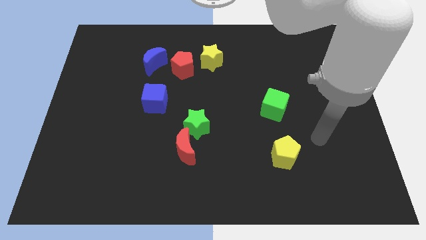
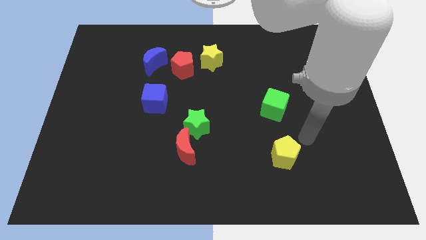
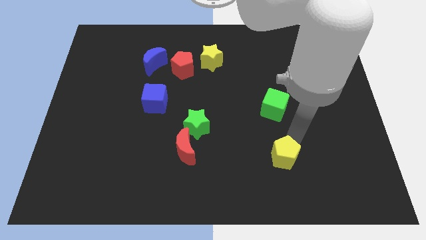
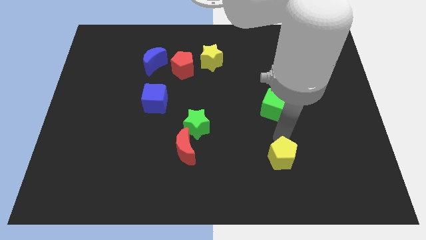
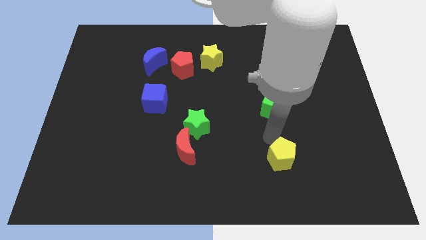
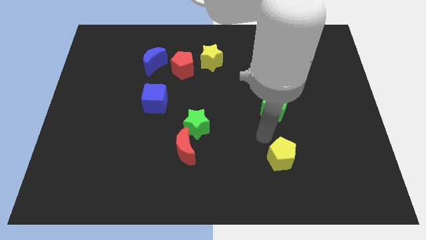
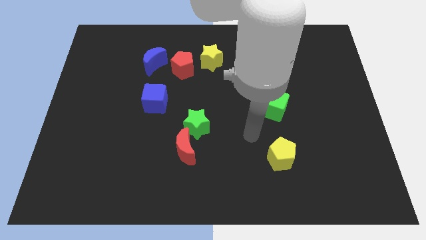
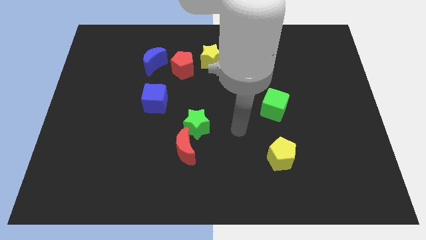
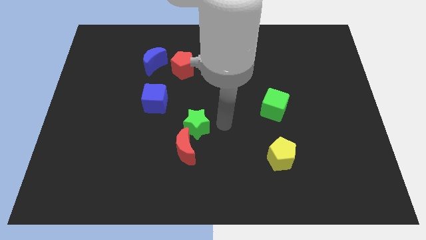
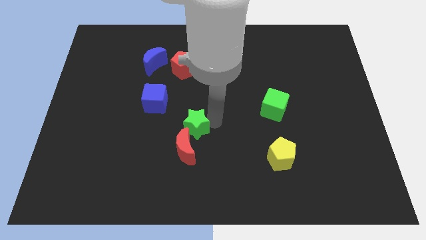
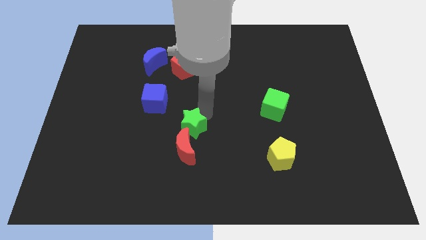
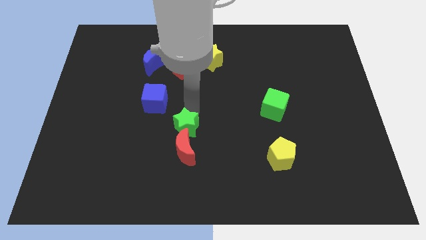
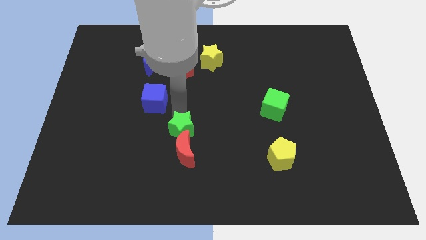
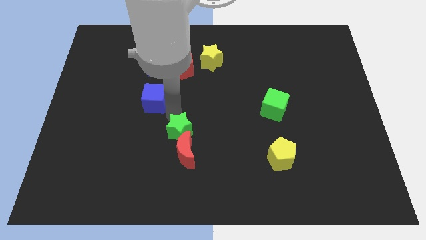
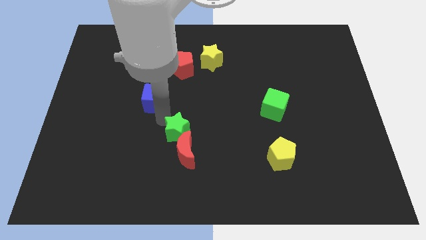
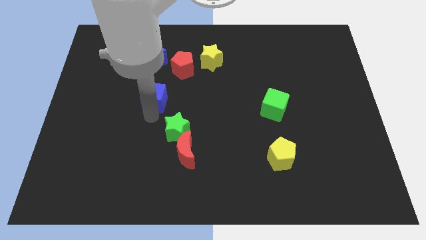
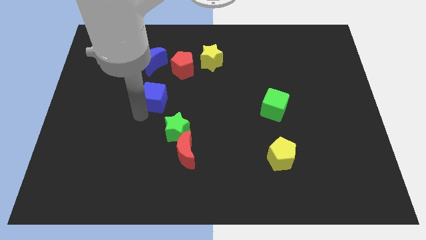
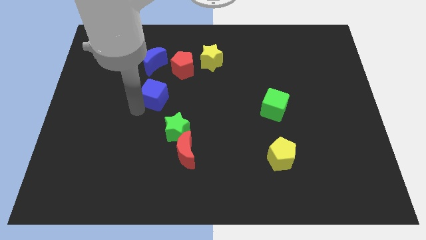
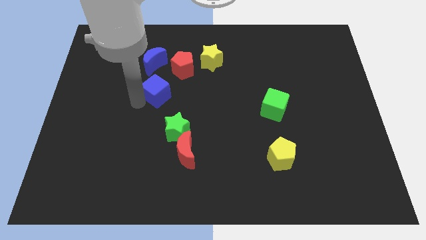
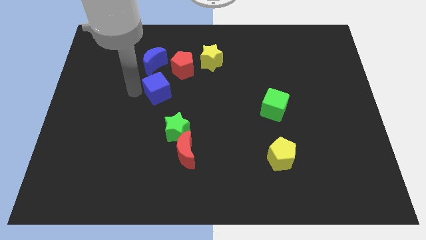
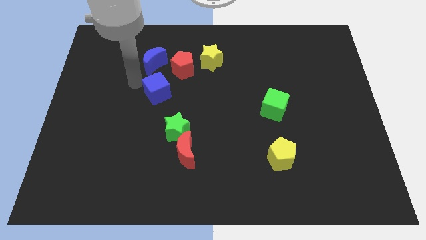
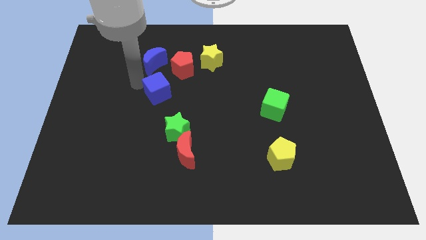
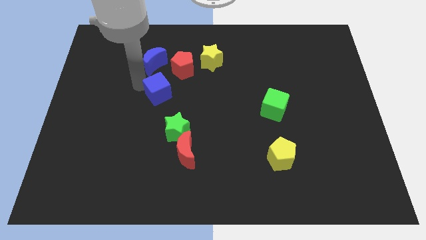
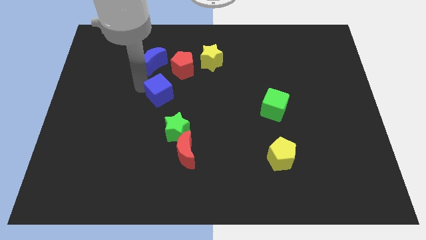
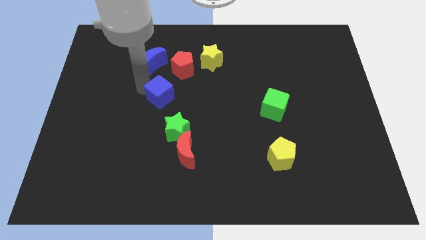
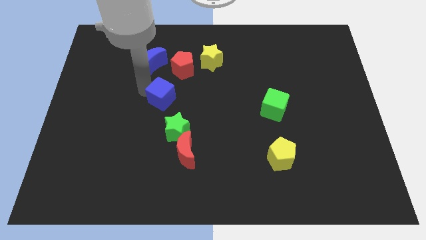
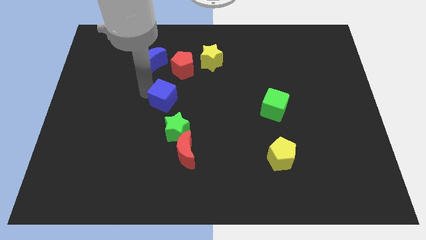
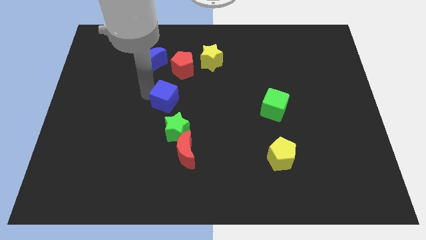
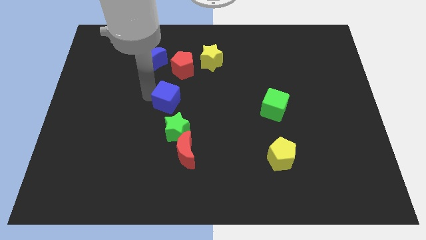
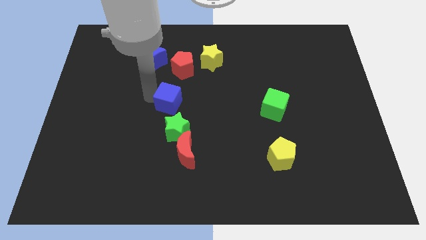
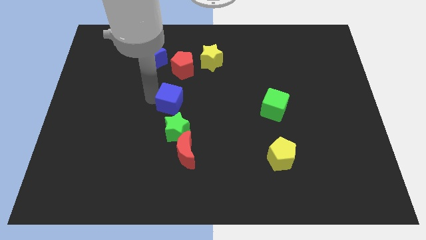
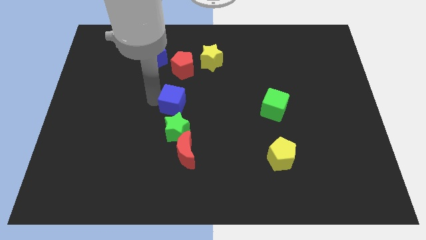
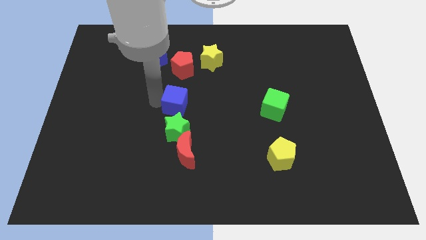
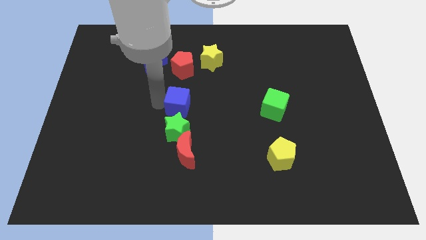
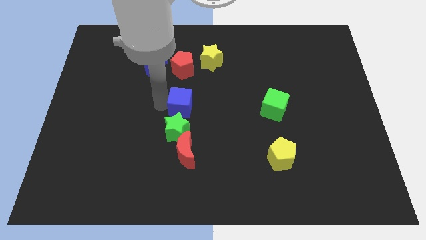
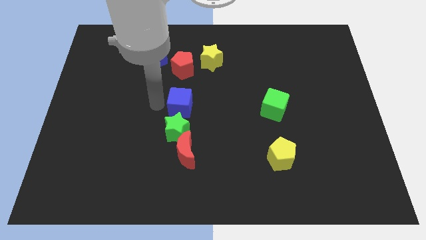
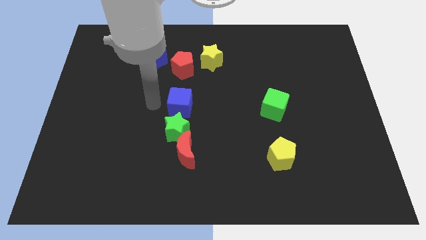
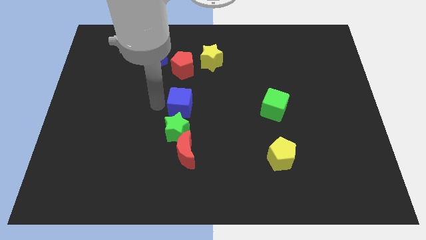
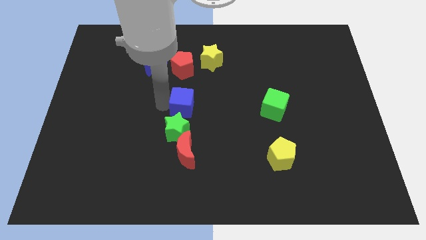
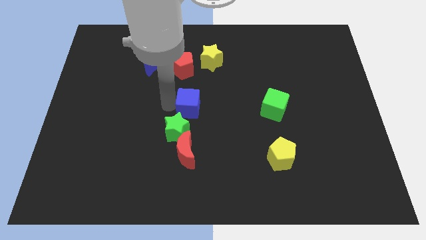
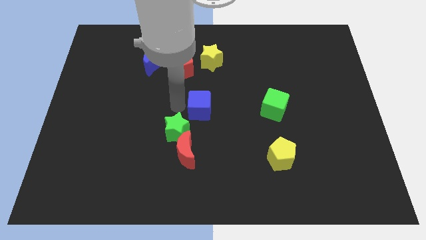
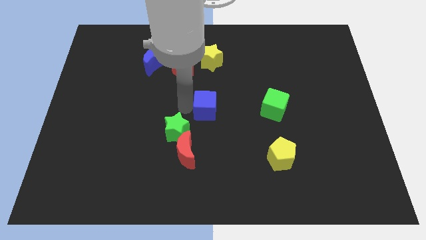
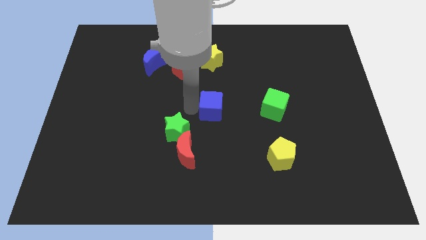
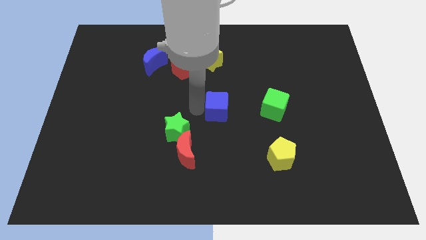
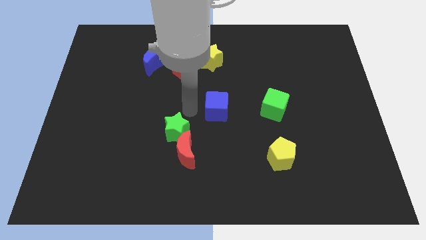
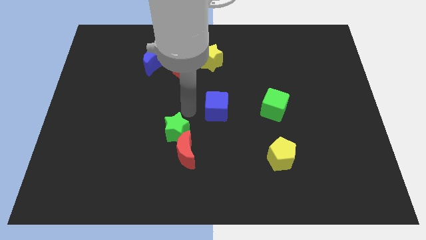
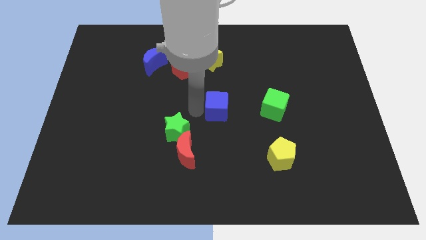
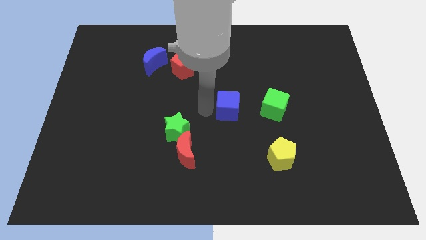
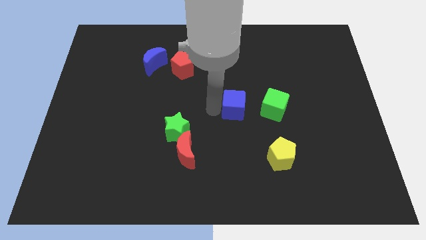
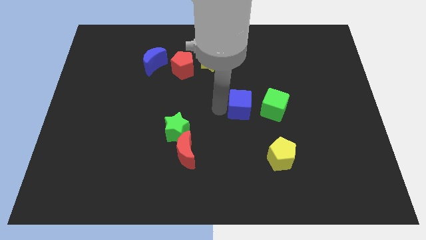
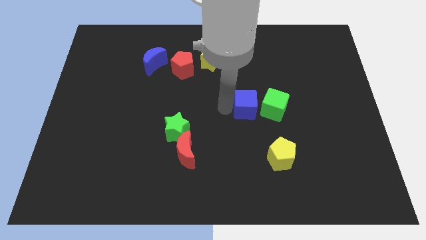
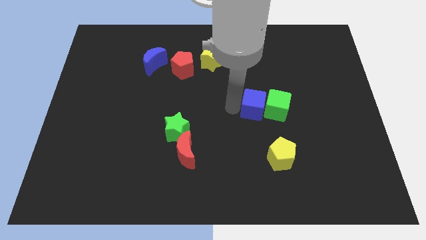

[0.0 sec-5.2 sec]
put the blue cube close to the green cube

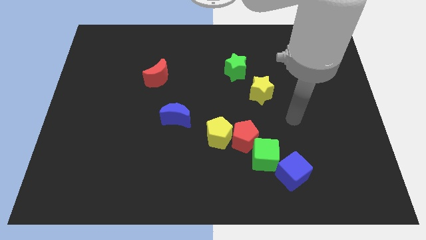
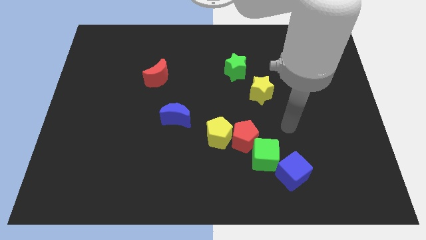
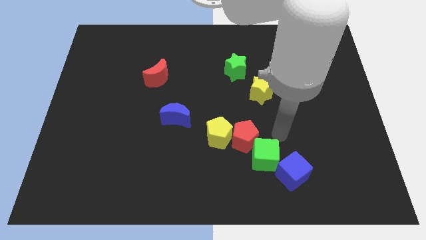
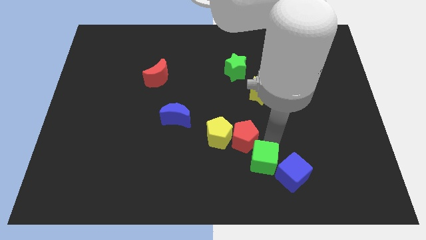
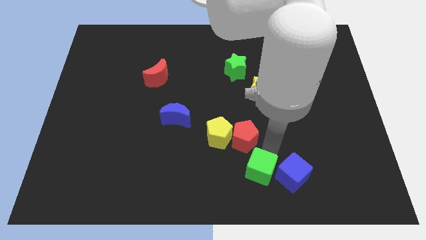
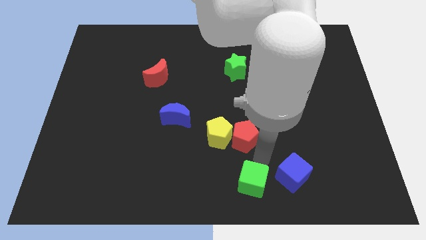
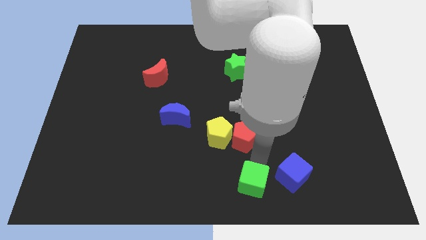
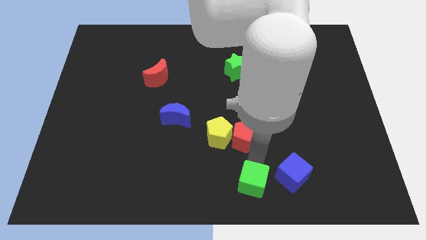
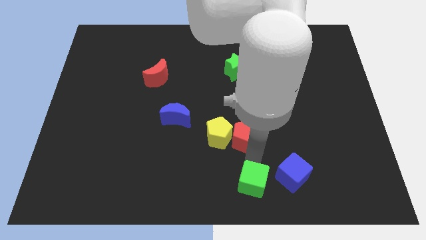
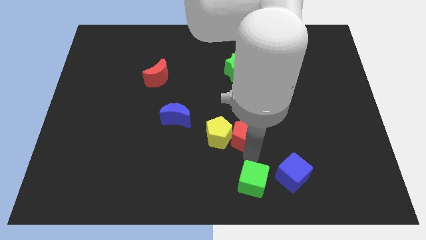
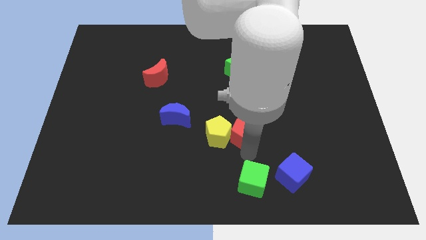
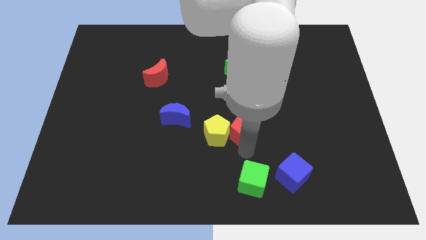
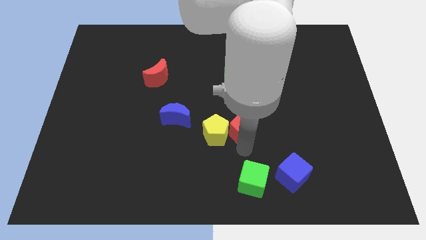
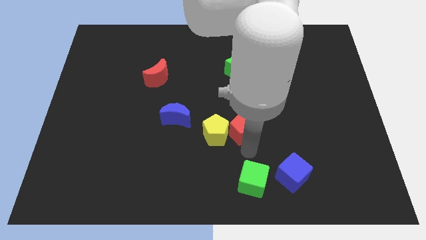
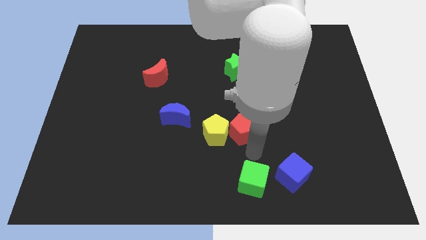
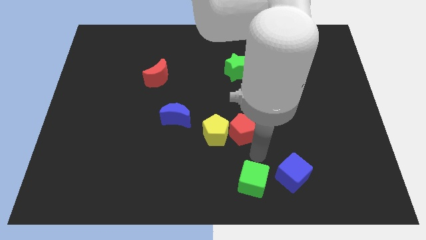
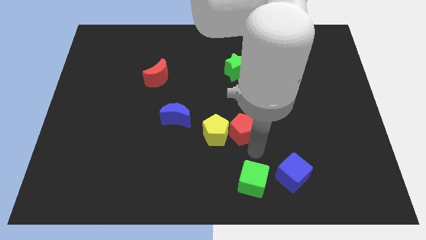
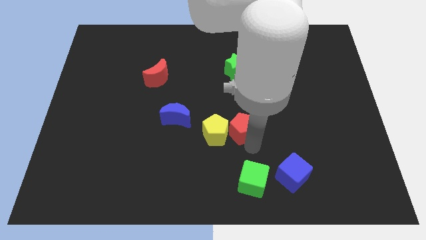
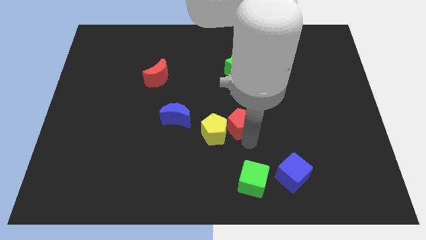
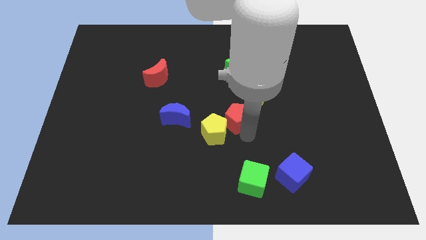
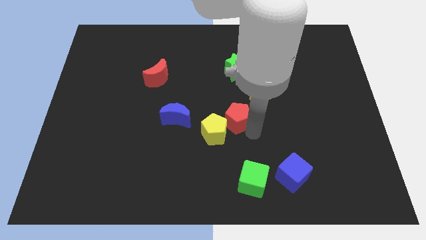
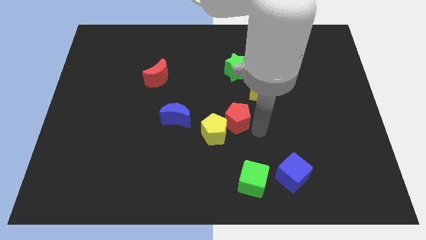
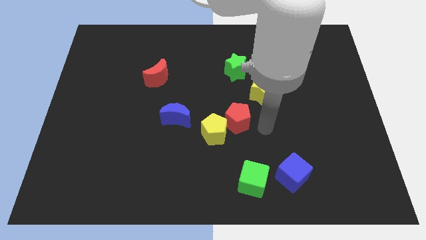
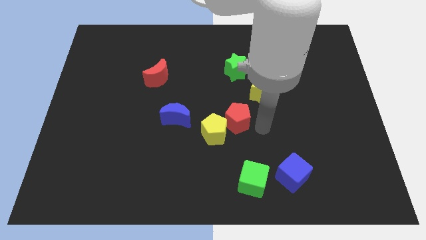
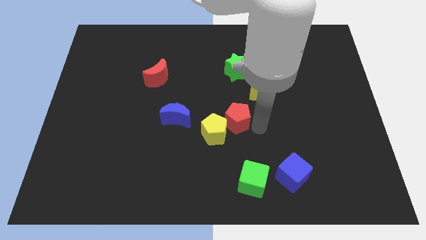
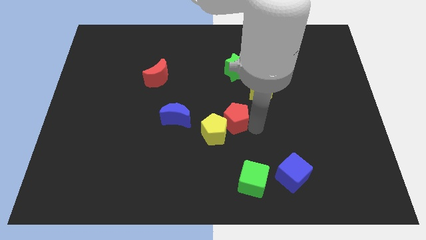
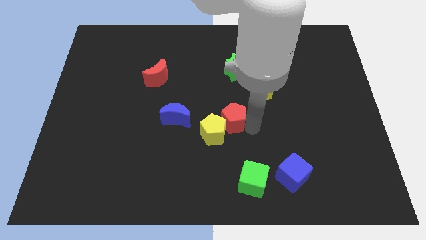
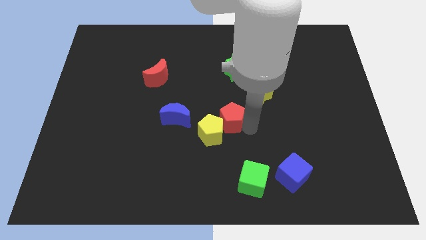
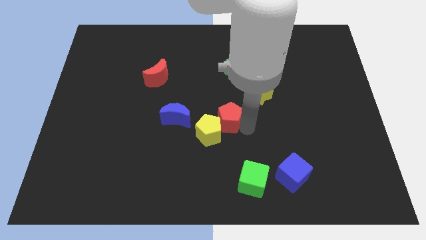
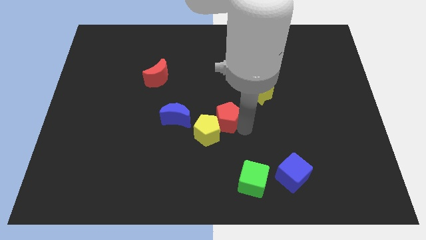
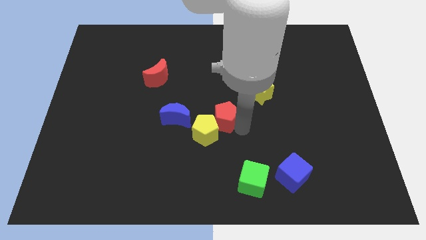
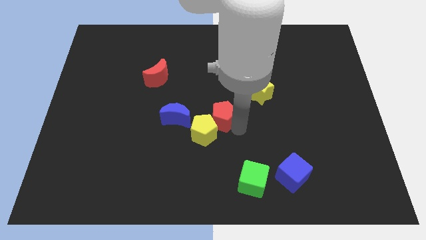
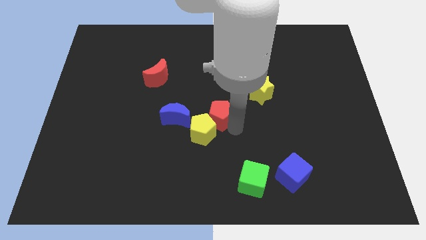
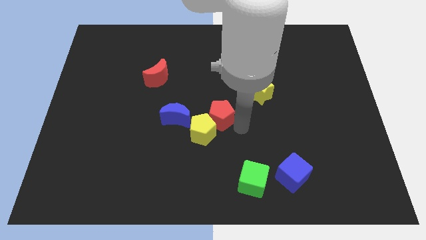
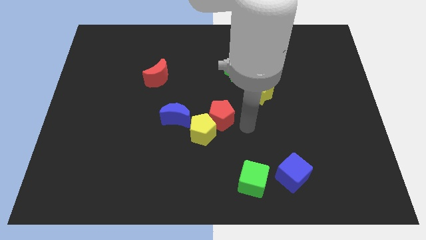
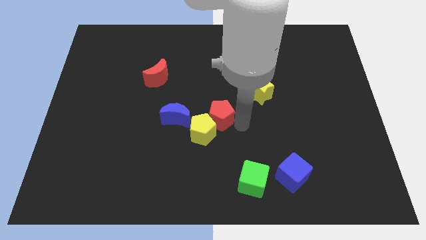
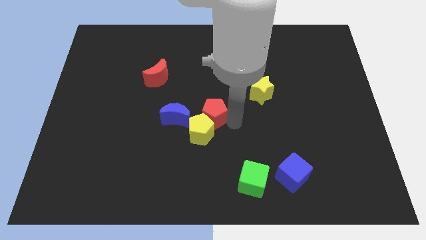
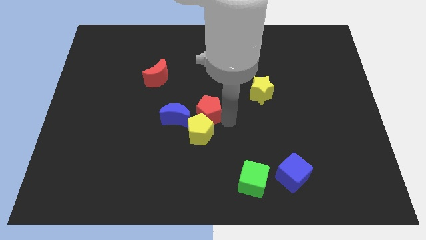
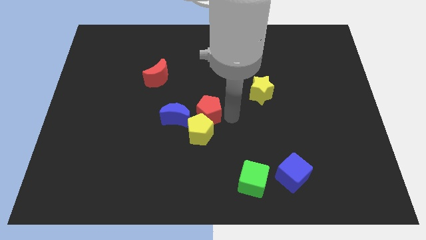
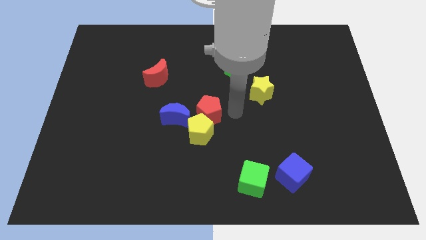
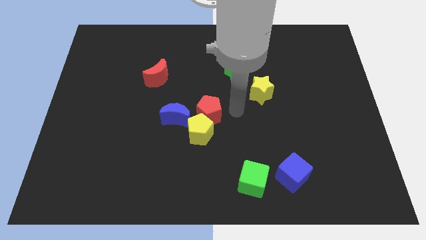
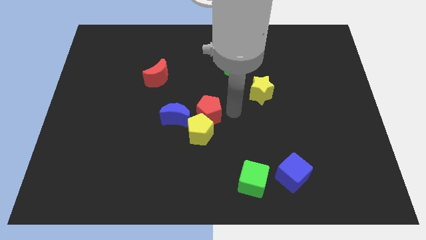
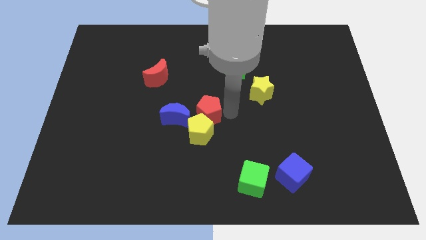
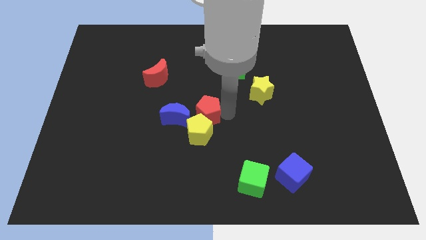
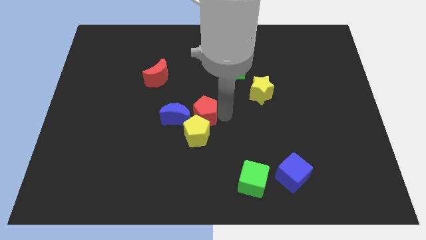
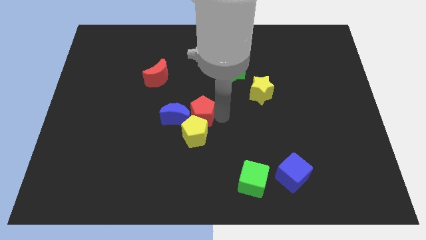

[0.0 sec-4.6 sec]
move the red pentagon towards the blue moon
